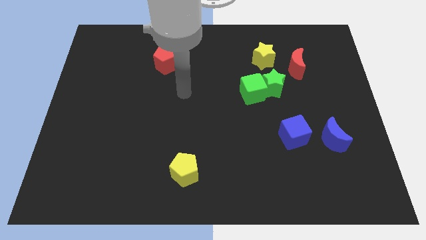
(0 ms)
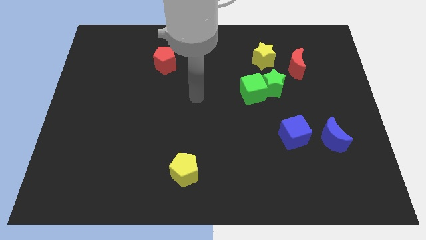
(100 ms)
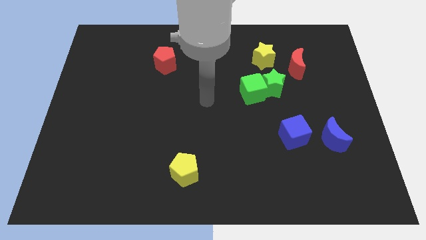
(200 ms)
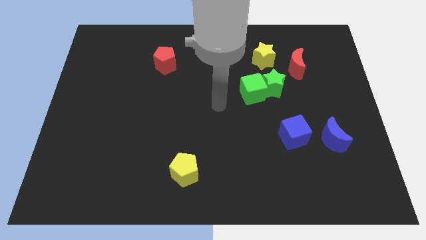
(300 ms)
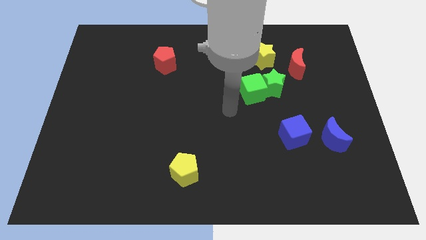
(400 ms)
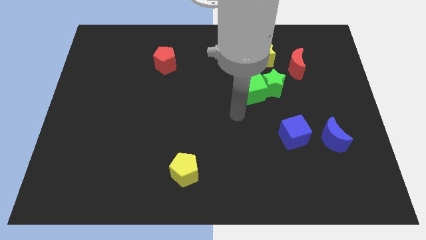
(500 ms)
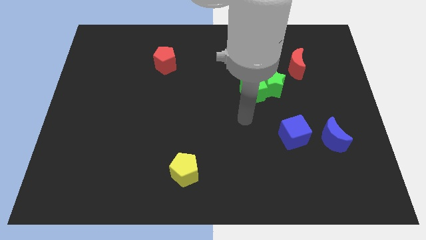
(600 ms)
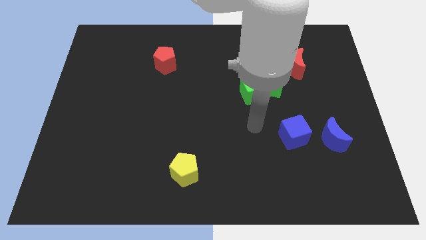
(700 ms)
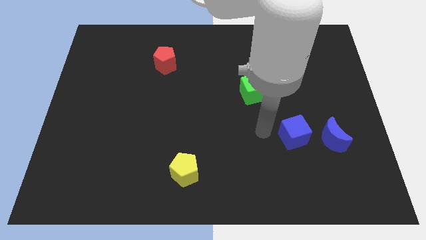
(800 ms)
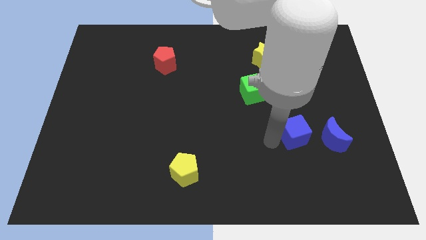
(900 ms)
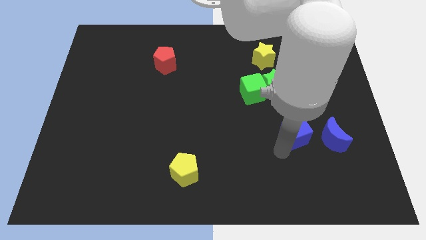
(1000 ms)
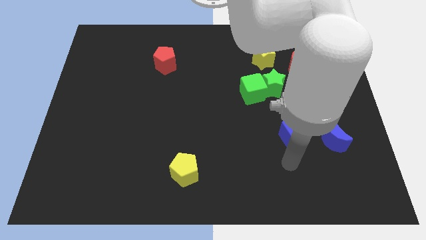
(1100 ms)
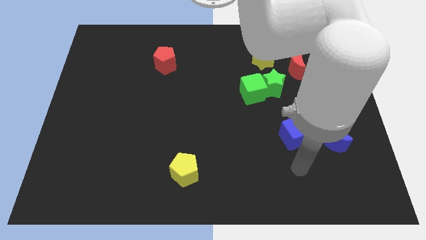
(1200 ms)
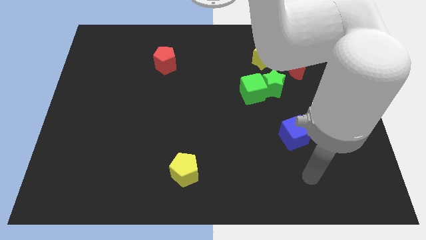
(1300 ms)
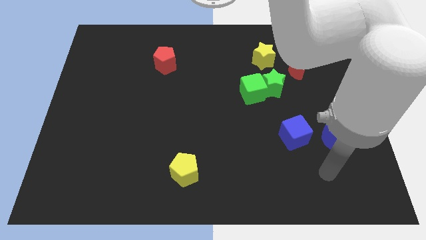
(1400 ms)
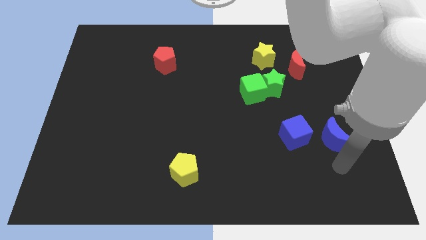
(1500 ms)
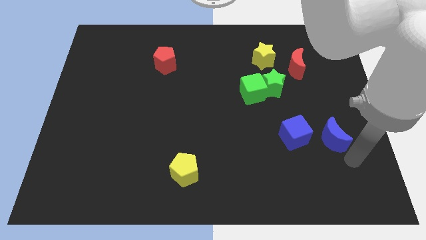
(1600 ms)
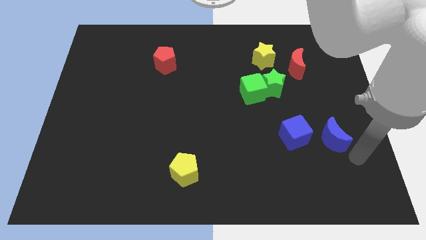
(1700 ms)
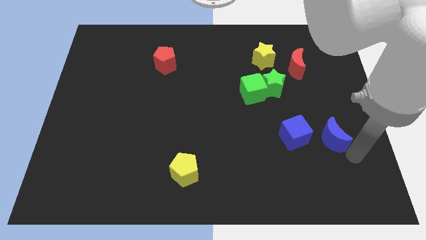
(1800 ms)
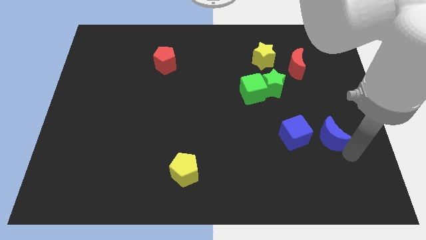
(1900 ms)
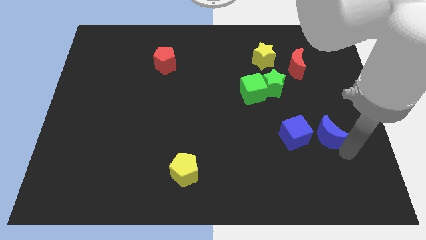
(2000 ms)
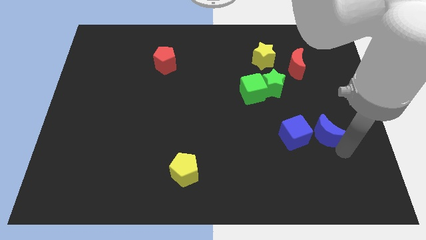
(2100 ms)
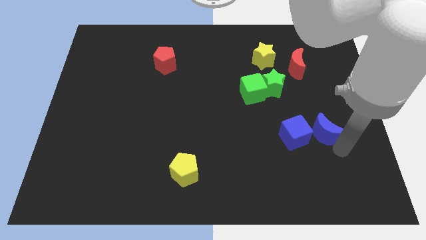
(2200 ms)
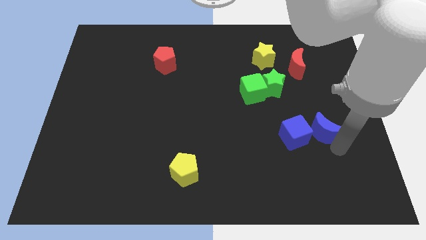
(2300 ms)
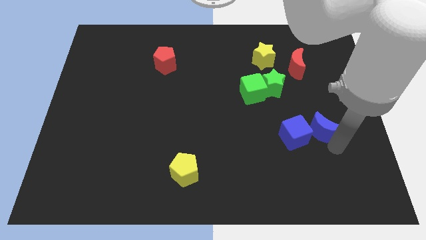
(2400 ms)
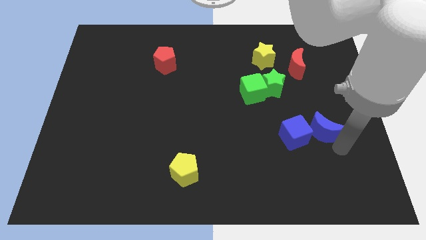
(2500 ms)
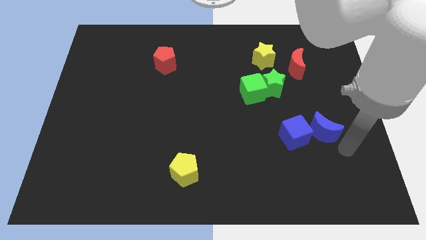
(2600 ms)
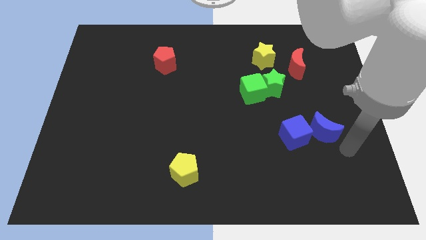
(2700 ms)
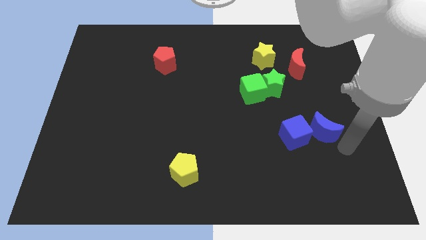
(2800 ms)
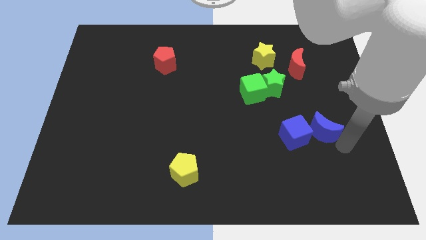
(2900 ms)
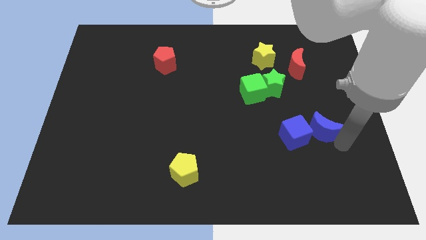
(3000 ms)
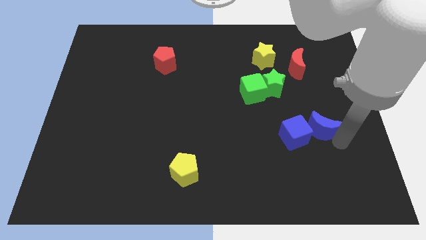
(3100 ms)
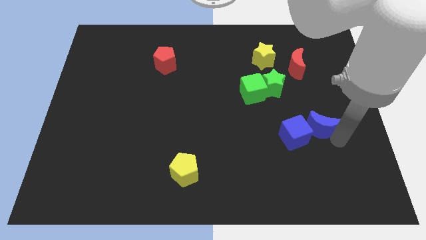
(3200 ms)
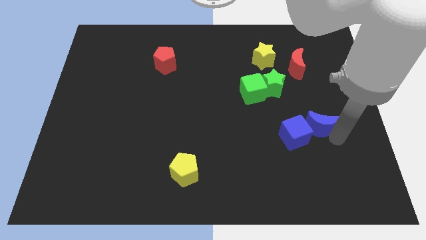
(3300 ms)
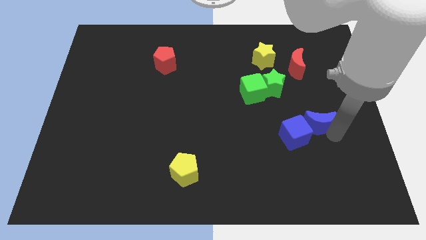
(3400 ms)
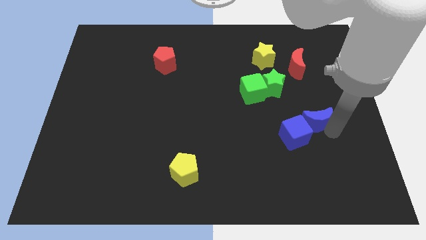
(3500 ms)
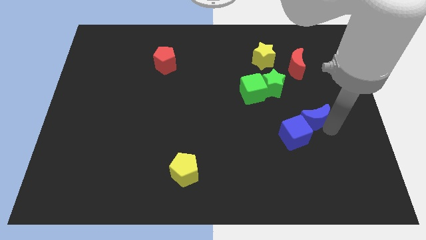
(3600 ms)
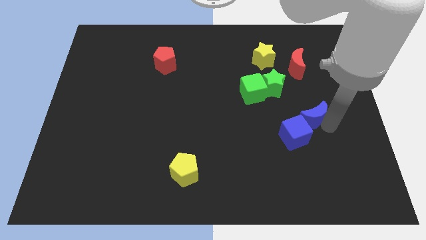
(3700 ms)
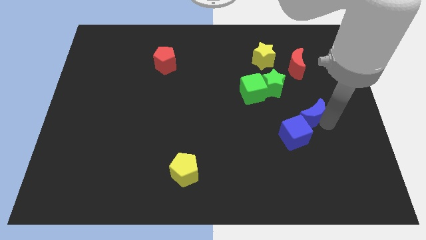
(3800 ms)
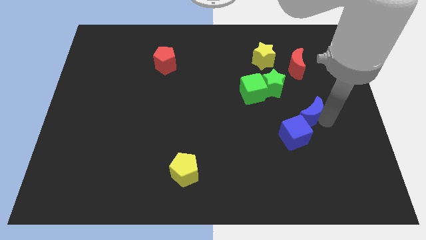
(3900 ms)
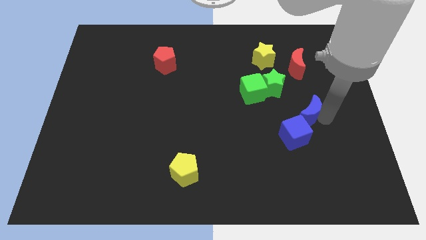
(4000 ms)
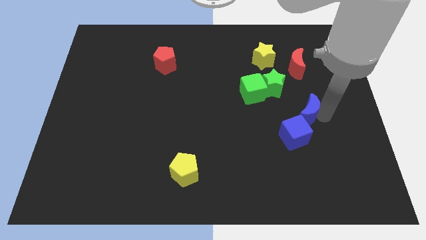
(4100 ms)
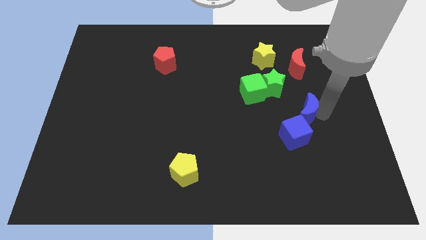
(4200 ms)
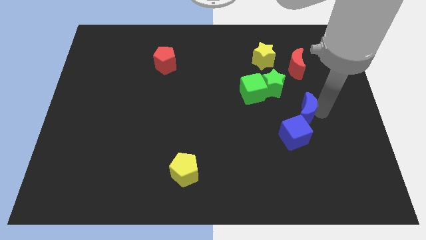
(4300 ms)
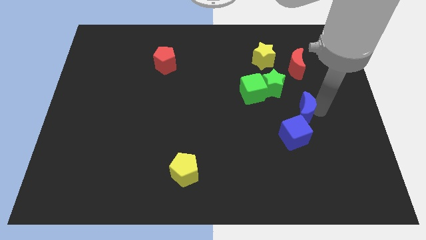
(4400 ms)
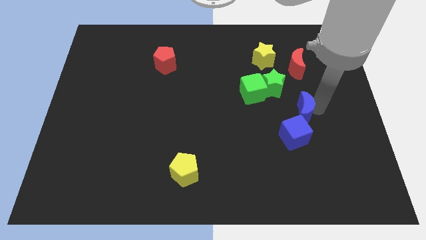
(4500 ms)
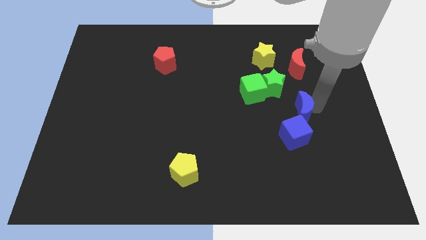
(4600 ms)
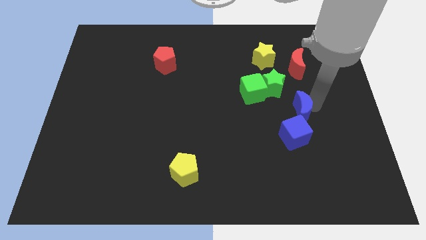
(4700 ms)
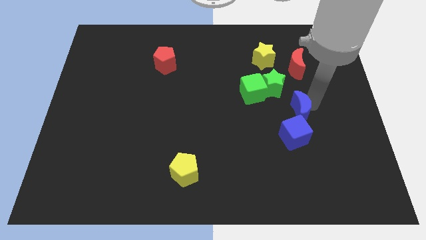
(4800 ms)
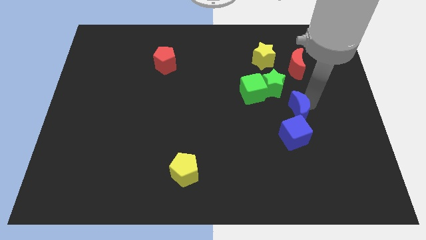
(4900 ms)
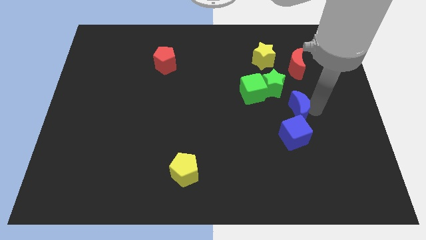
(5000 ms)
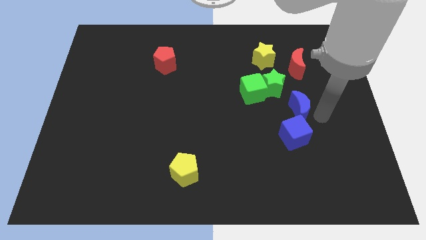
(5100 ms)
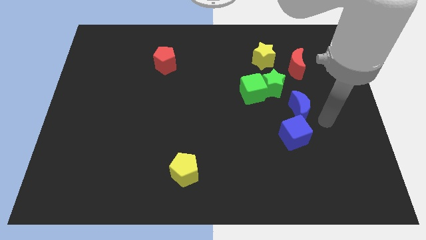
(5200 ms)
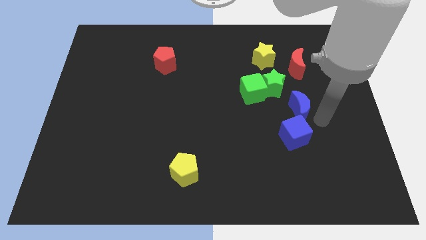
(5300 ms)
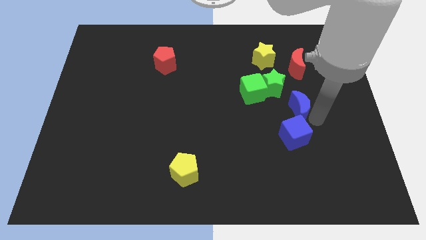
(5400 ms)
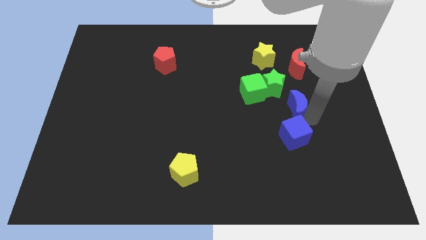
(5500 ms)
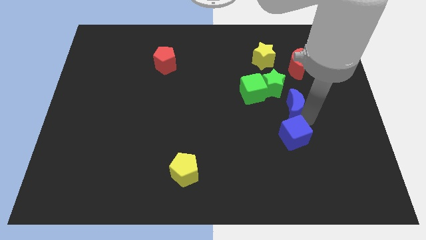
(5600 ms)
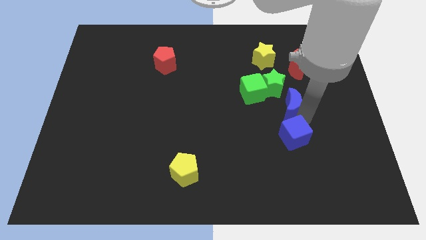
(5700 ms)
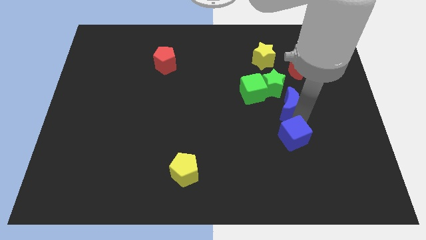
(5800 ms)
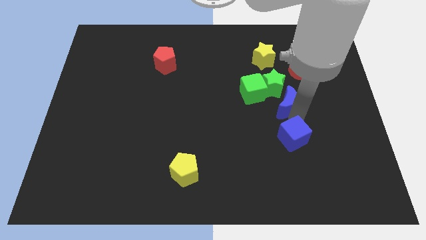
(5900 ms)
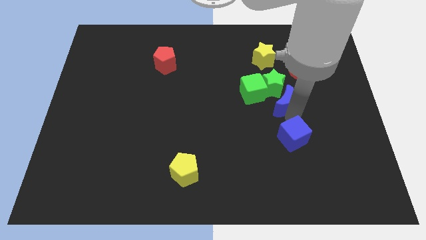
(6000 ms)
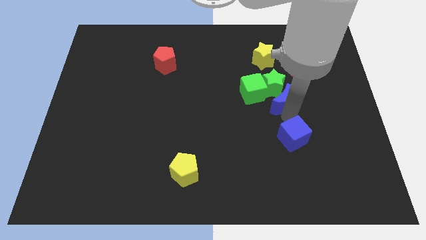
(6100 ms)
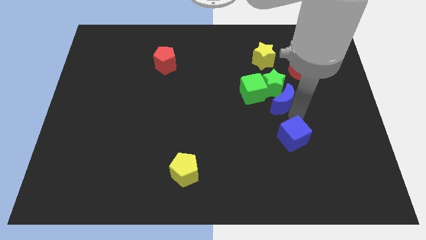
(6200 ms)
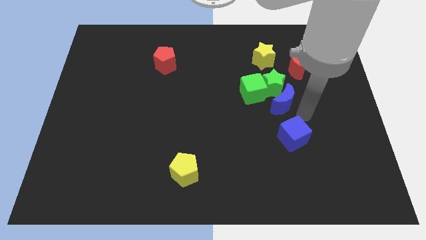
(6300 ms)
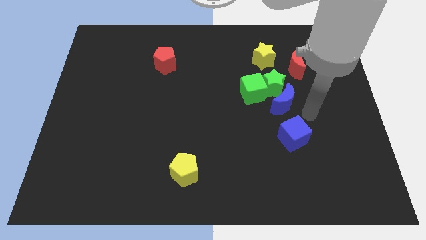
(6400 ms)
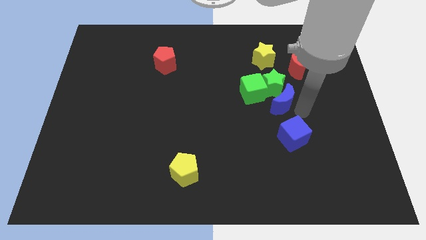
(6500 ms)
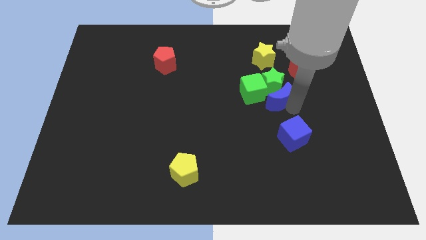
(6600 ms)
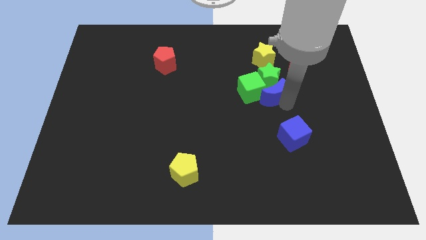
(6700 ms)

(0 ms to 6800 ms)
push the blue moon next to the green cube

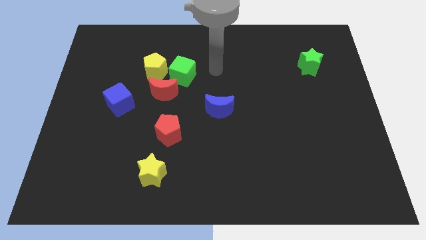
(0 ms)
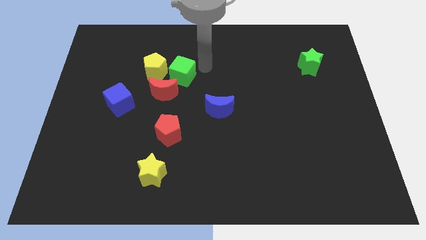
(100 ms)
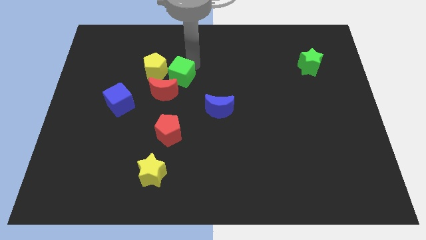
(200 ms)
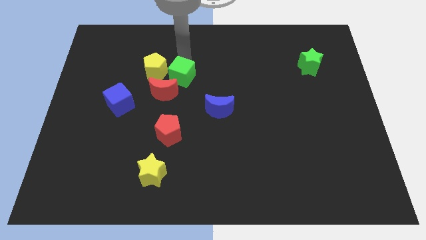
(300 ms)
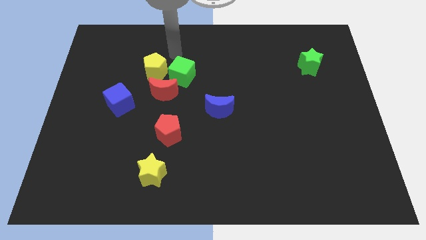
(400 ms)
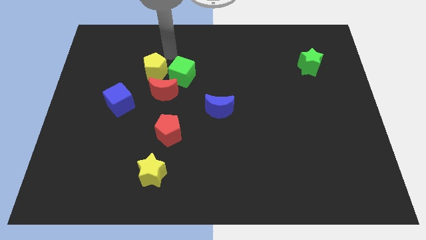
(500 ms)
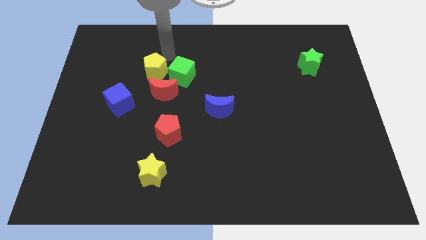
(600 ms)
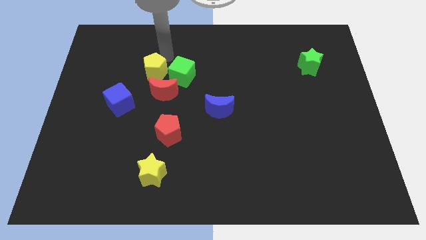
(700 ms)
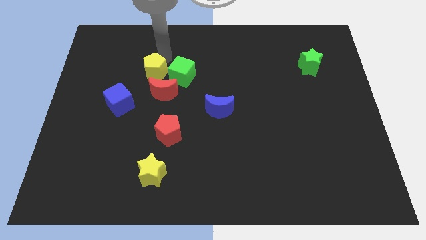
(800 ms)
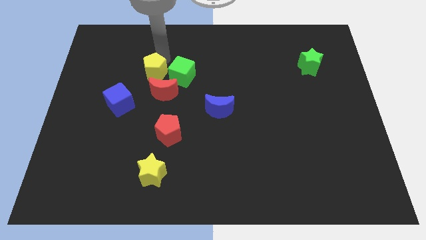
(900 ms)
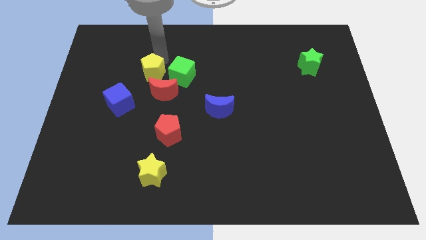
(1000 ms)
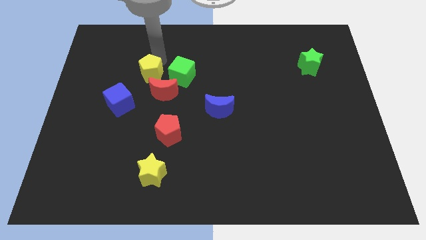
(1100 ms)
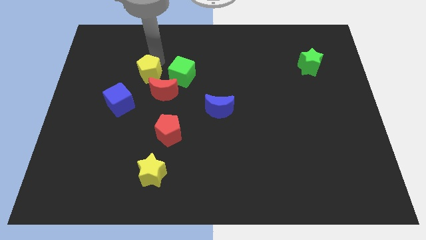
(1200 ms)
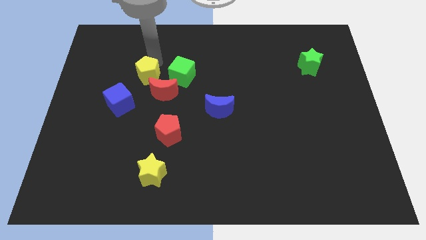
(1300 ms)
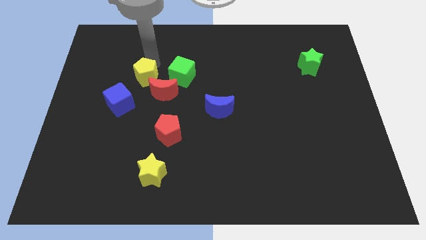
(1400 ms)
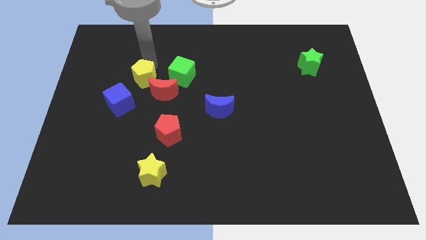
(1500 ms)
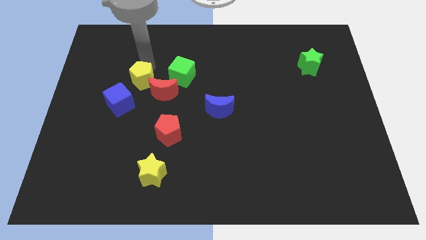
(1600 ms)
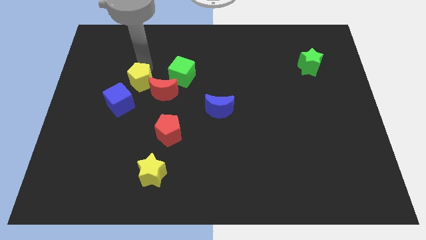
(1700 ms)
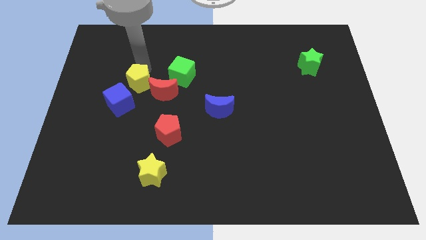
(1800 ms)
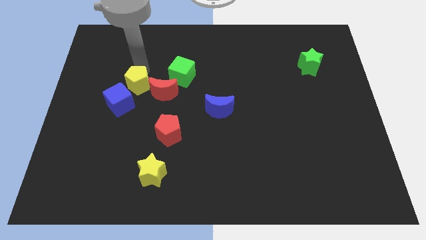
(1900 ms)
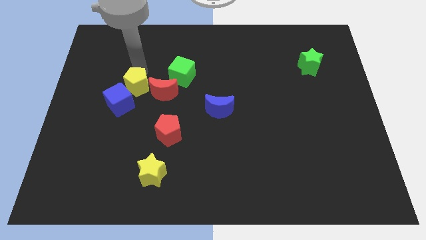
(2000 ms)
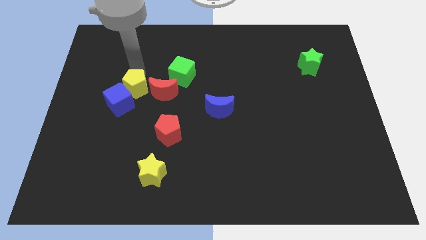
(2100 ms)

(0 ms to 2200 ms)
put the yellow pentagon towards the blue cube
